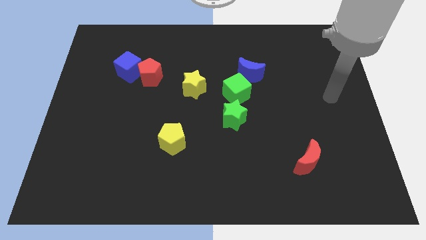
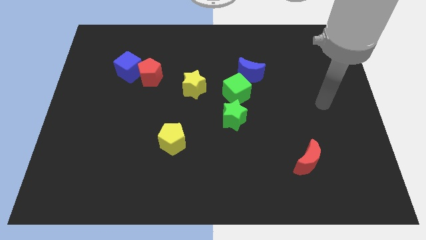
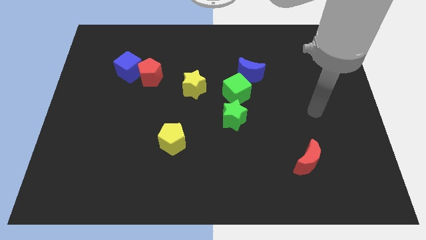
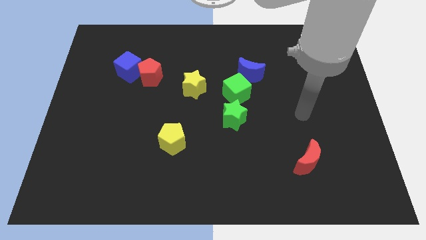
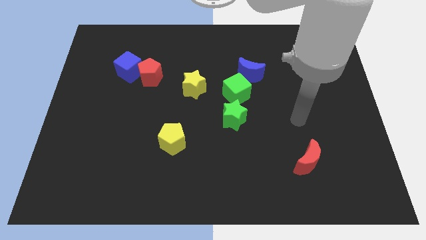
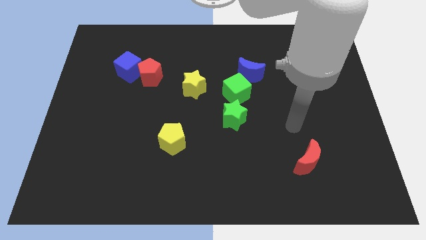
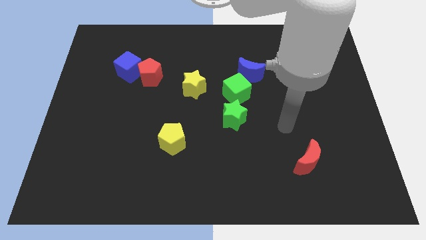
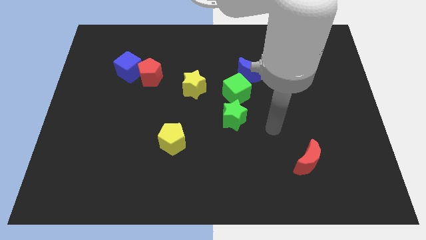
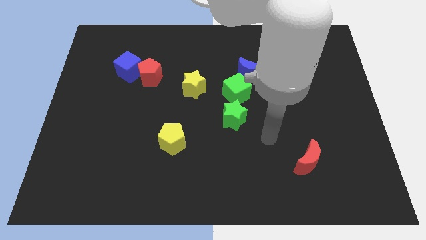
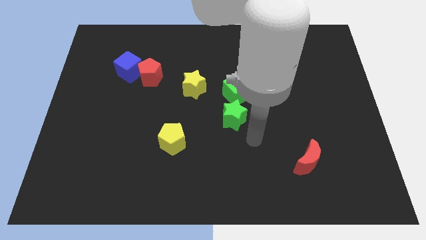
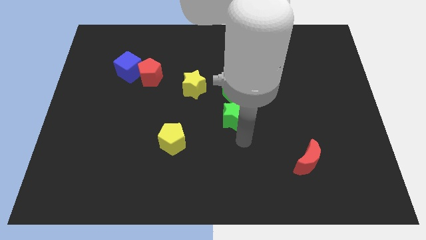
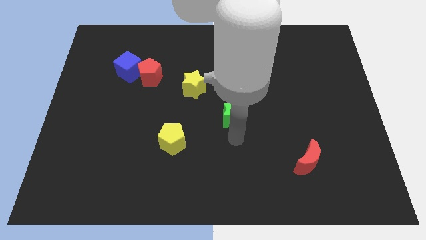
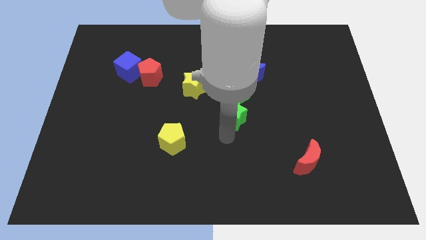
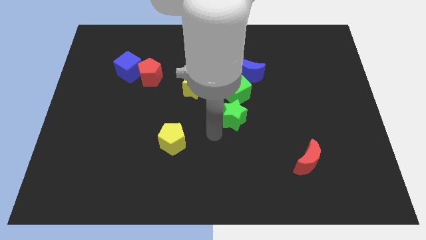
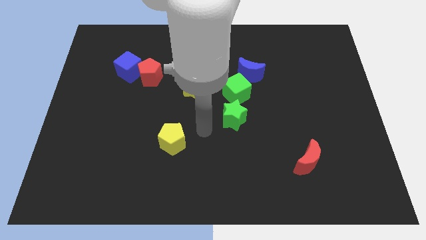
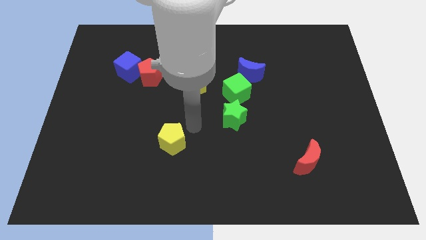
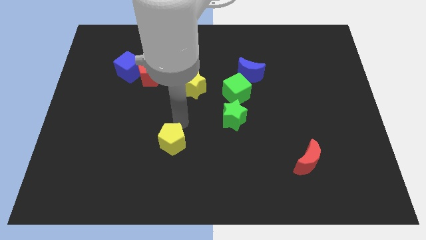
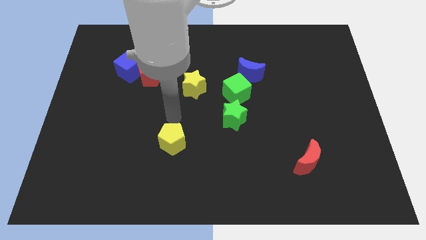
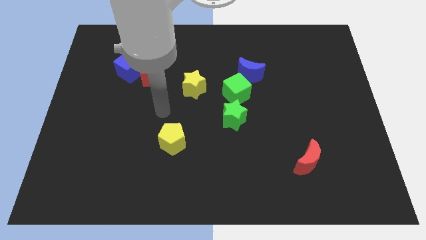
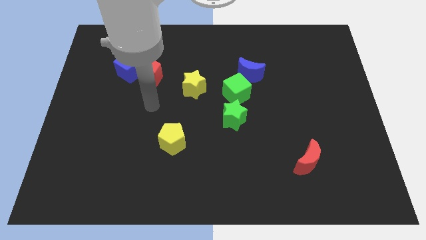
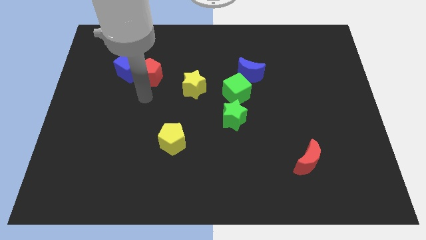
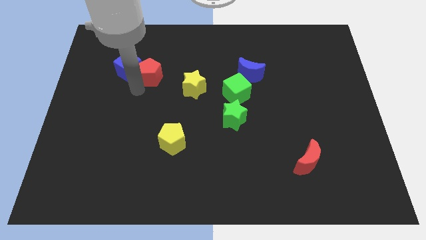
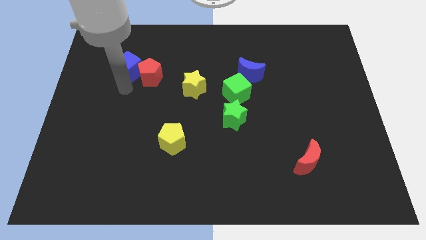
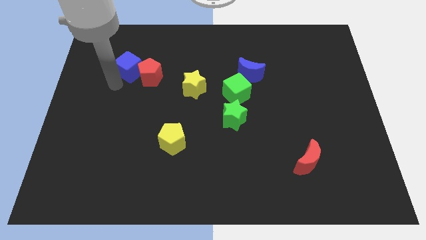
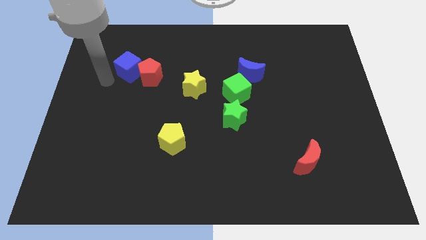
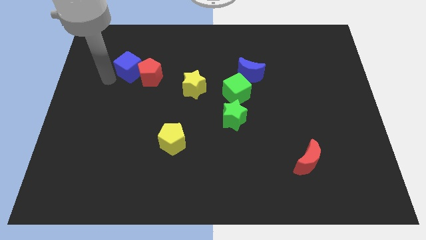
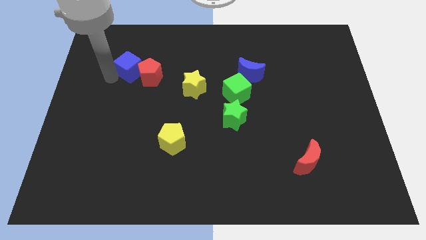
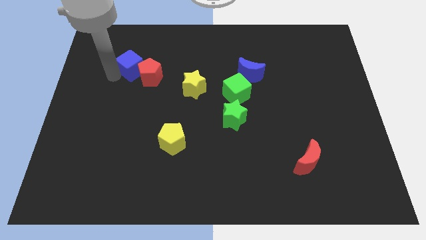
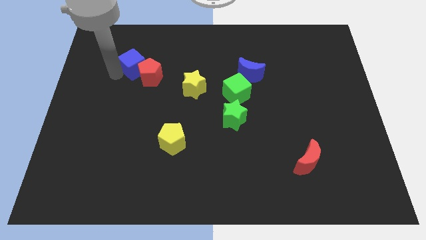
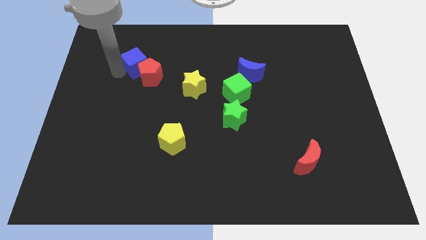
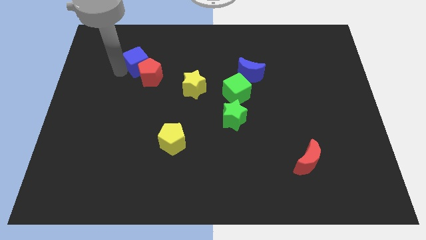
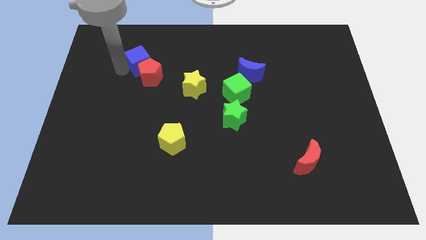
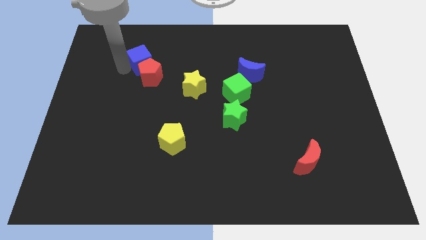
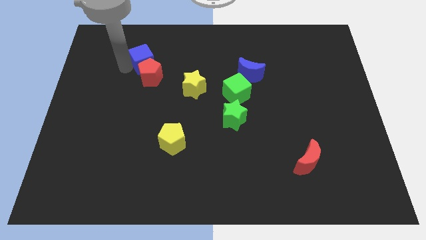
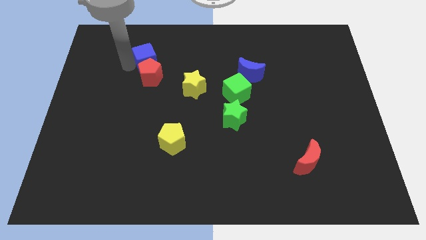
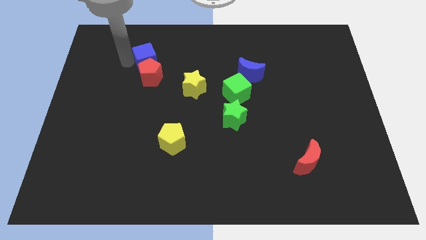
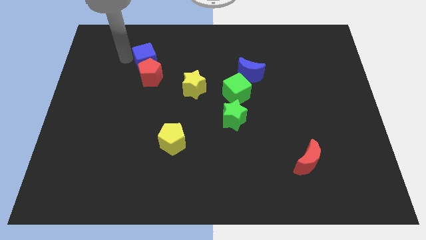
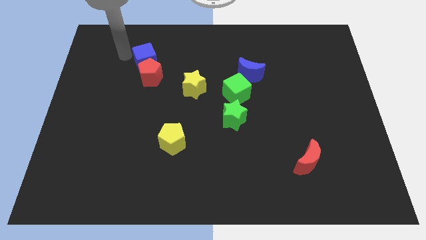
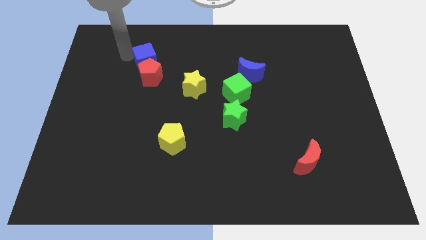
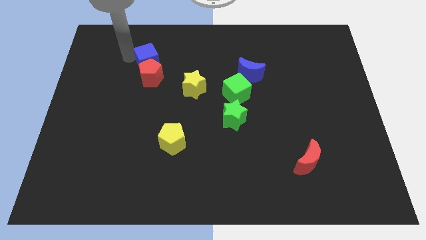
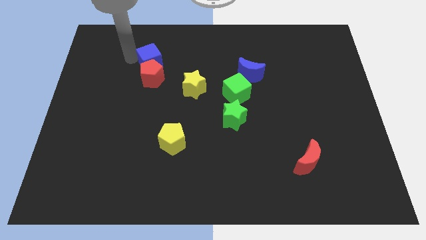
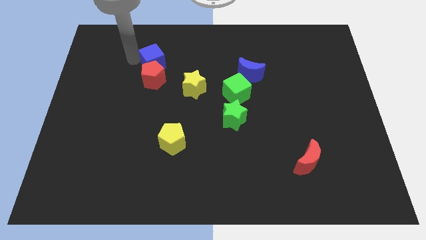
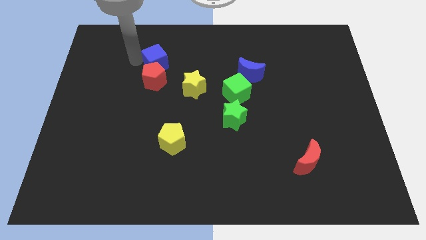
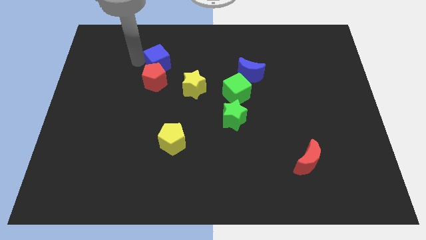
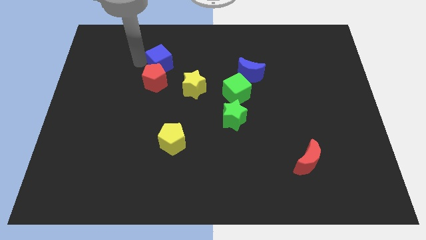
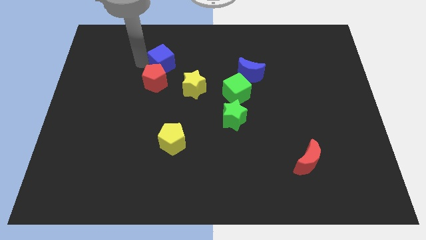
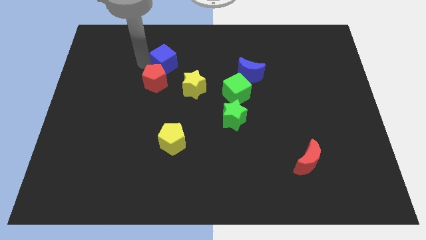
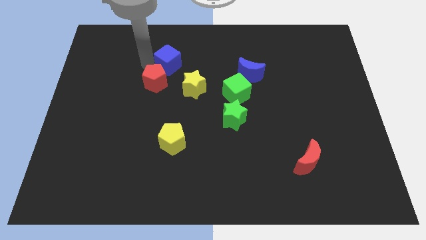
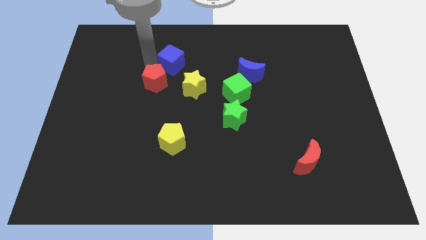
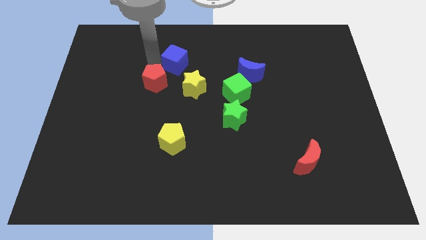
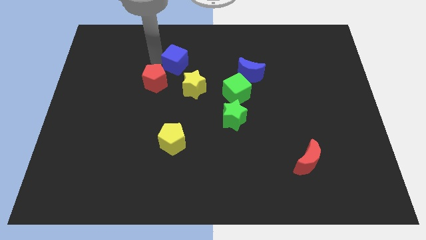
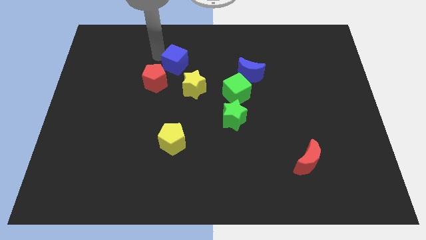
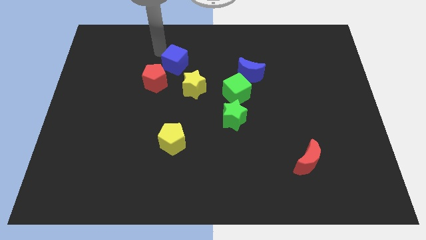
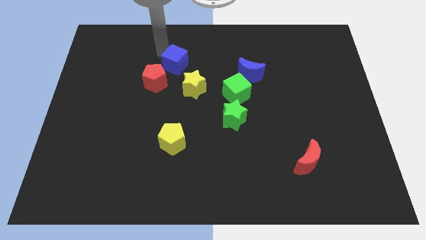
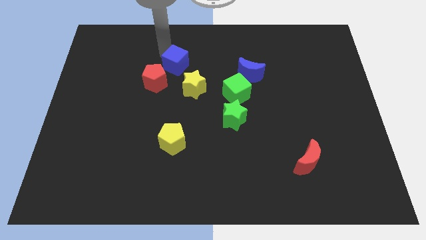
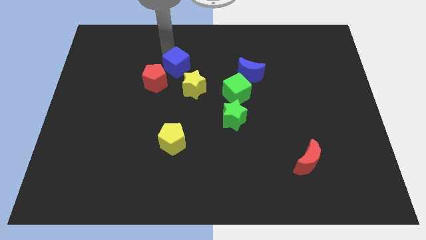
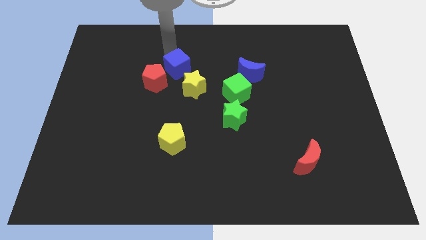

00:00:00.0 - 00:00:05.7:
slide the blue cube right of the red pentagon

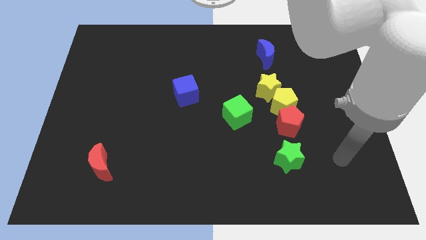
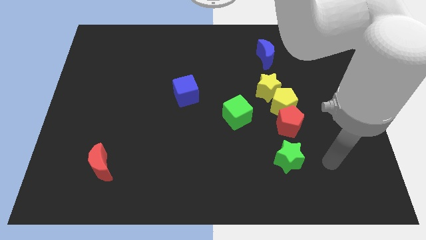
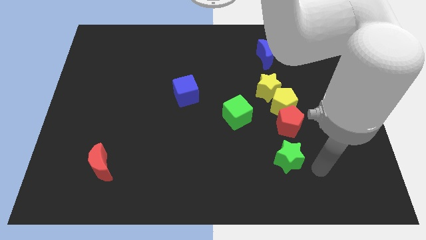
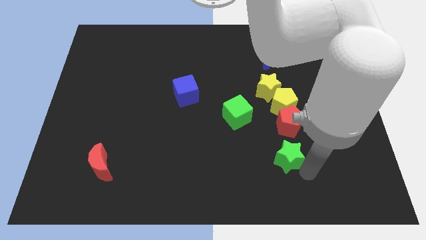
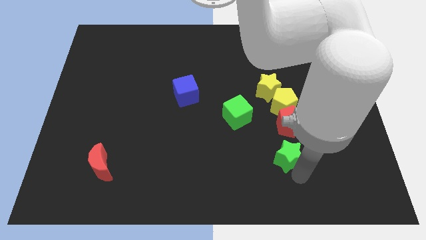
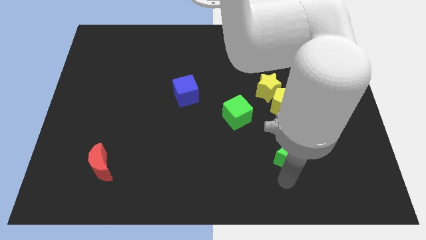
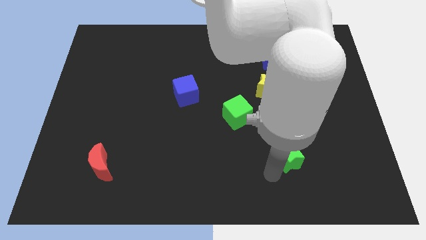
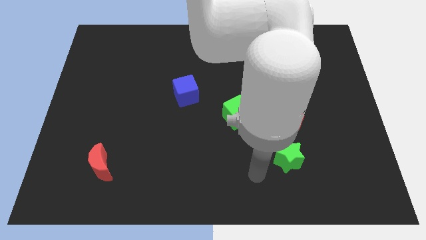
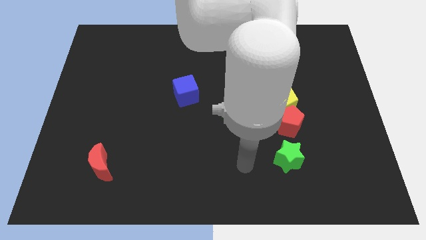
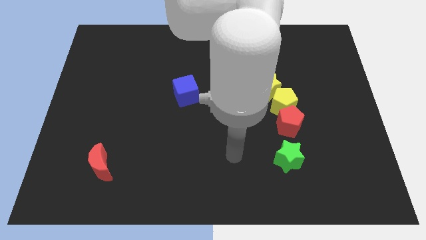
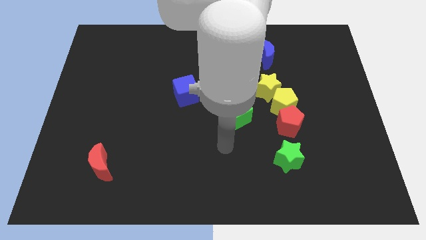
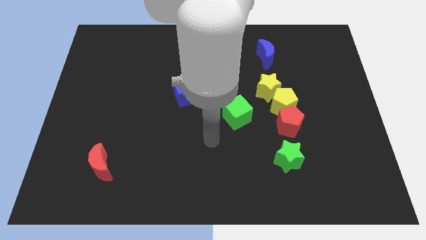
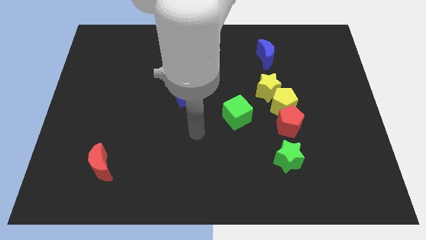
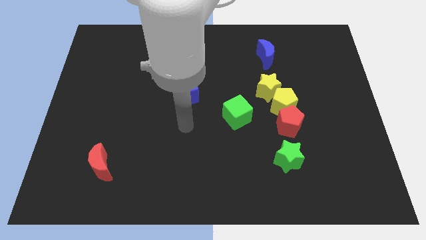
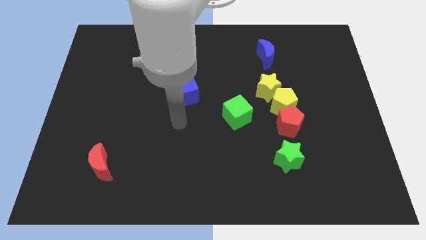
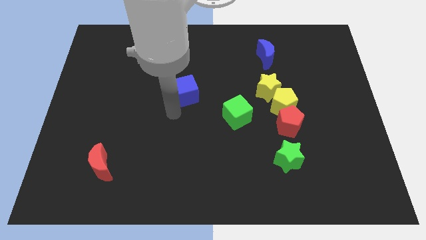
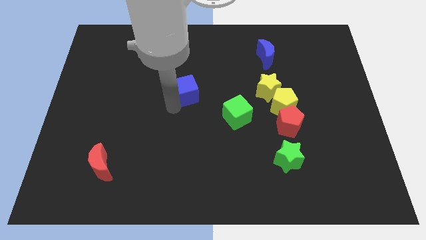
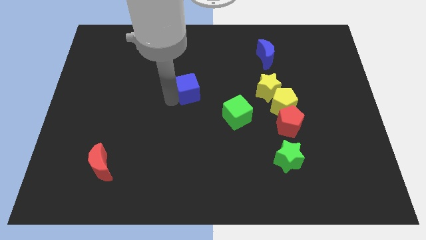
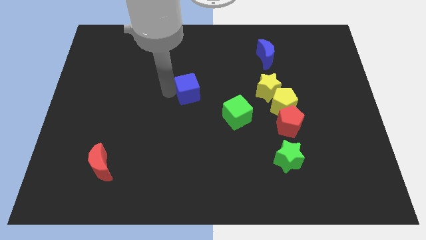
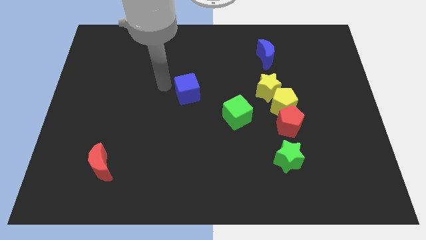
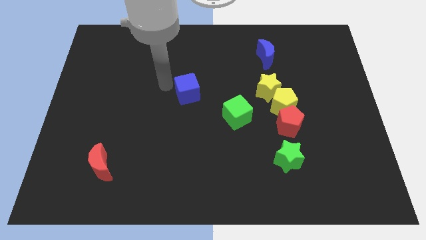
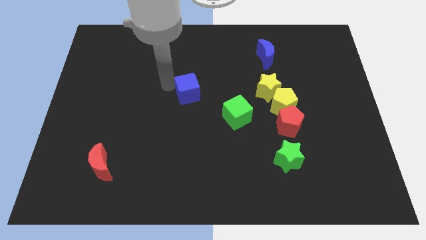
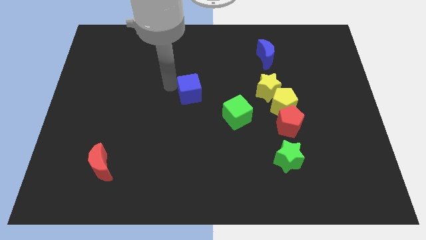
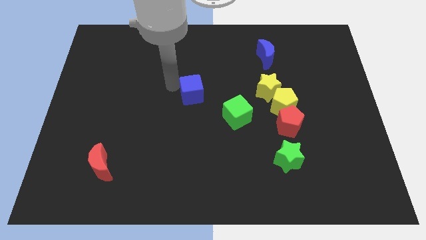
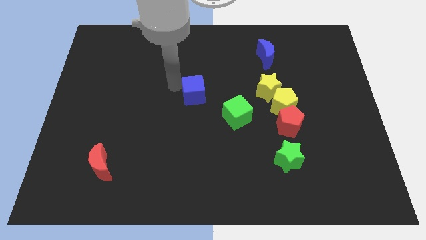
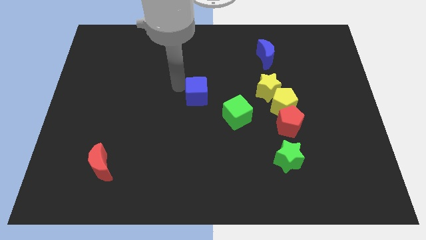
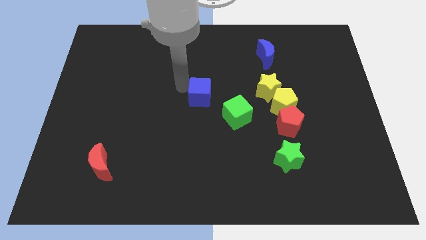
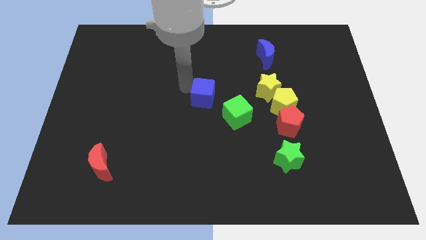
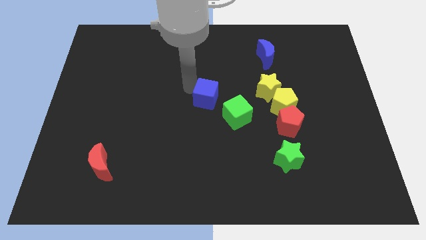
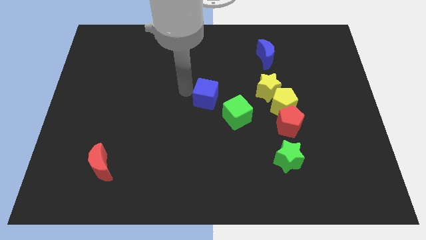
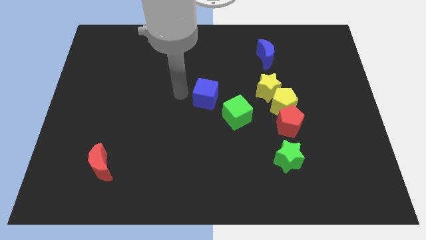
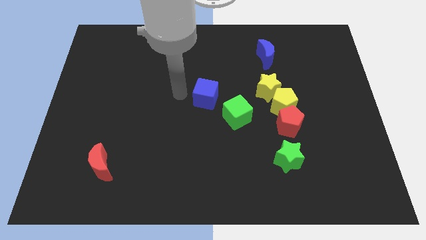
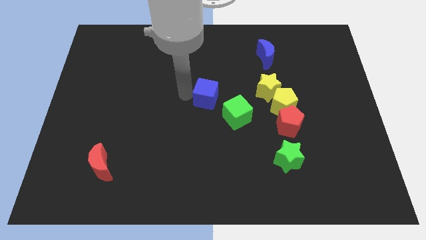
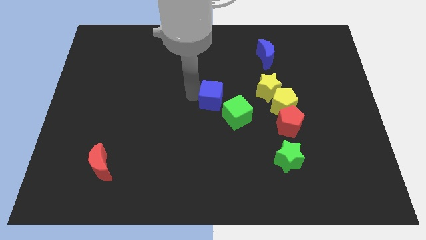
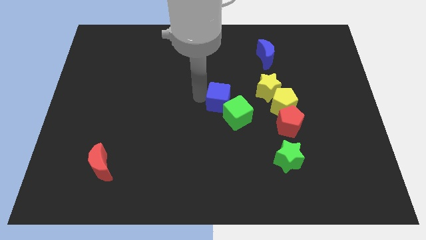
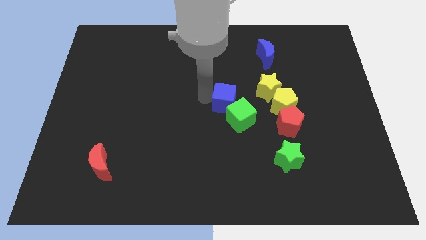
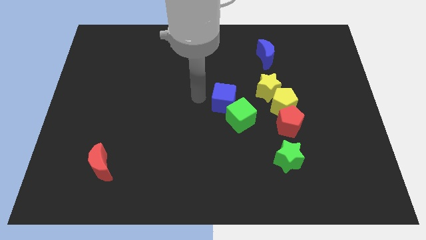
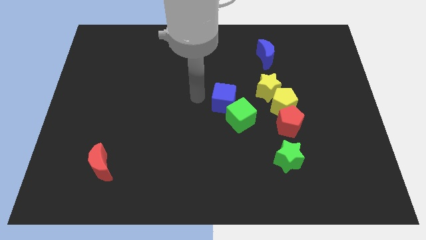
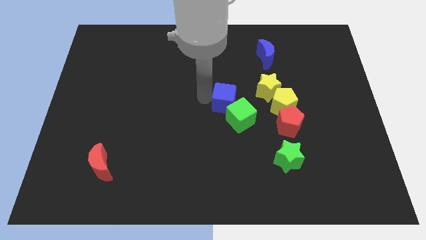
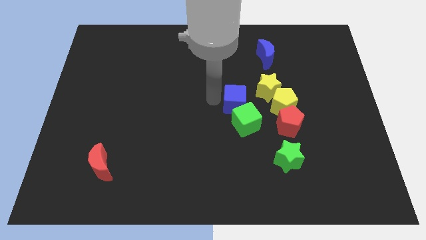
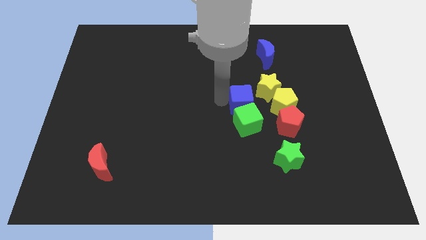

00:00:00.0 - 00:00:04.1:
put the blue cube diagonally up and to the left of the red pentagon
